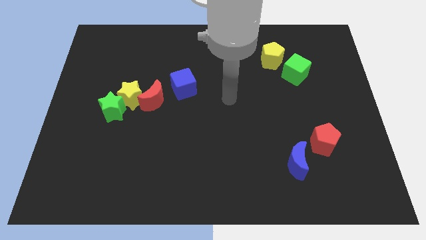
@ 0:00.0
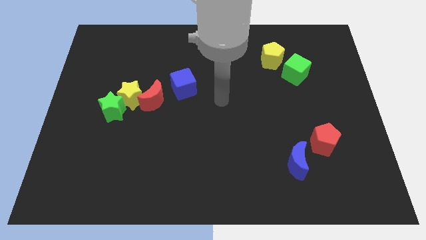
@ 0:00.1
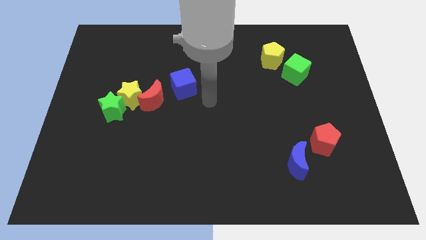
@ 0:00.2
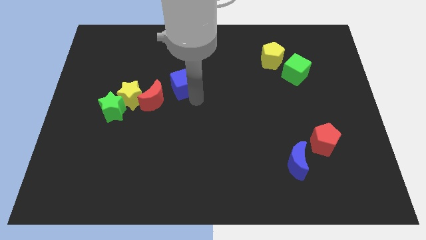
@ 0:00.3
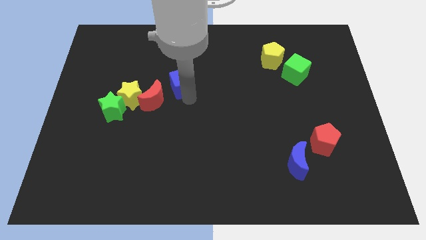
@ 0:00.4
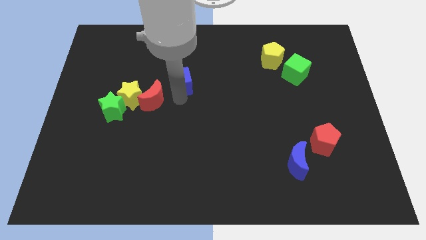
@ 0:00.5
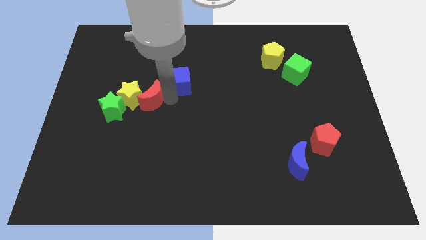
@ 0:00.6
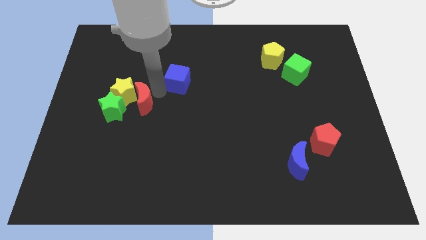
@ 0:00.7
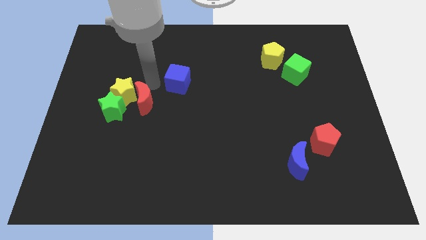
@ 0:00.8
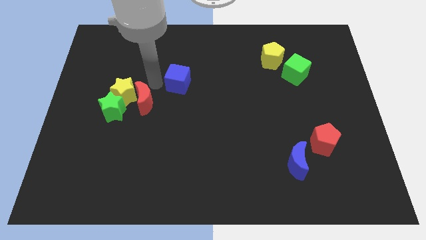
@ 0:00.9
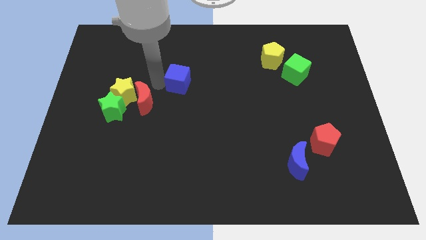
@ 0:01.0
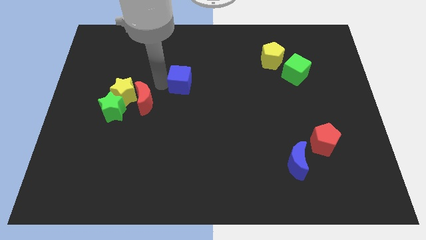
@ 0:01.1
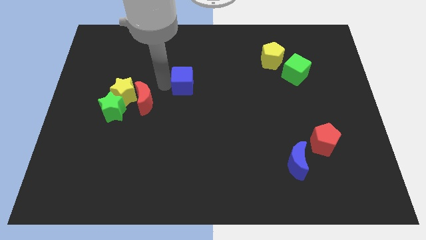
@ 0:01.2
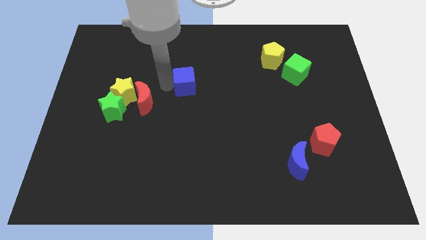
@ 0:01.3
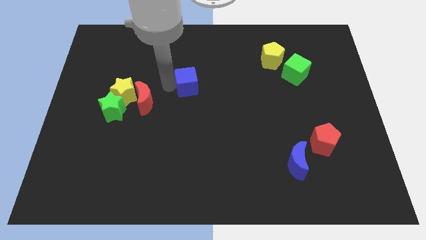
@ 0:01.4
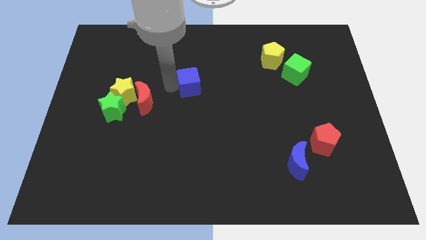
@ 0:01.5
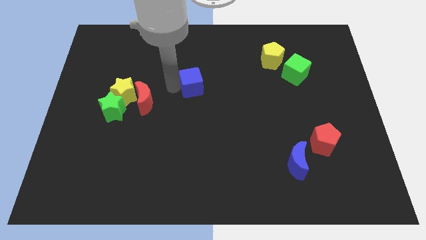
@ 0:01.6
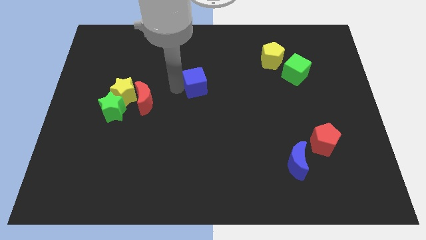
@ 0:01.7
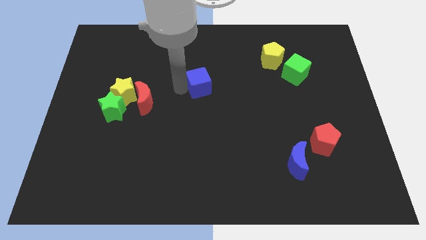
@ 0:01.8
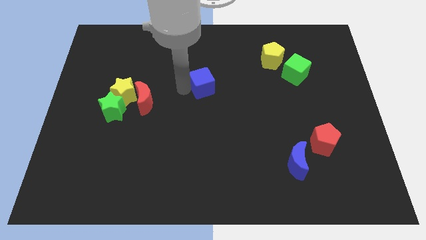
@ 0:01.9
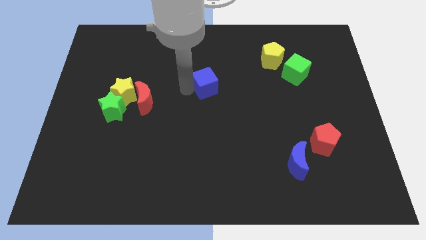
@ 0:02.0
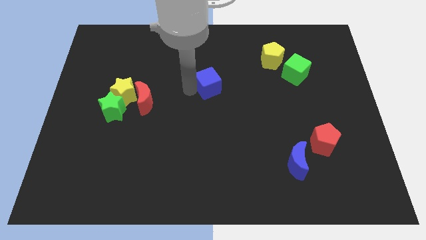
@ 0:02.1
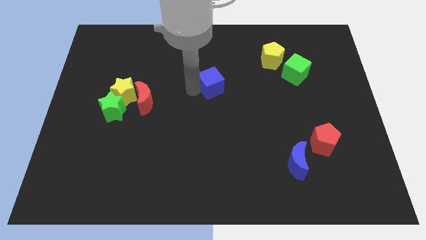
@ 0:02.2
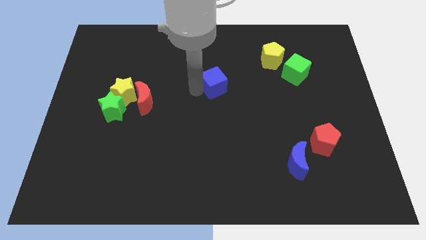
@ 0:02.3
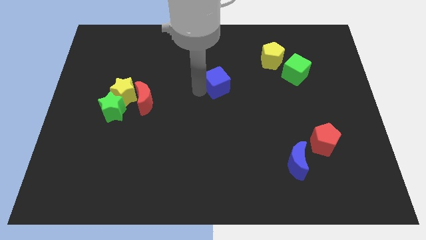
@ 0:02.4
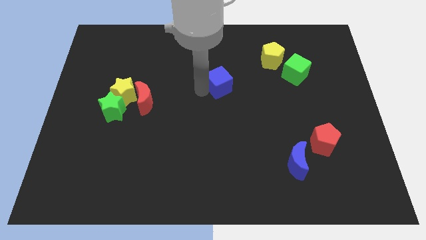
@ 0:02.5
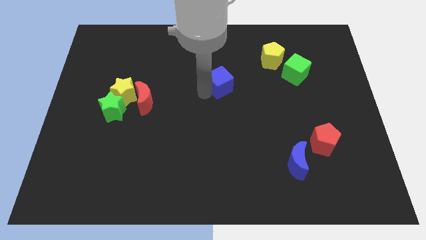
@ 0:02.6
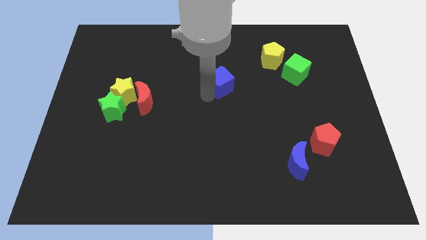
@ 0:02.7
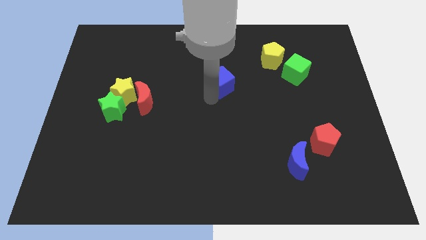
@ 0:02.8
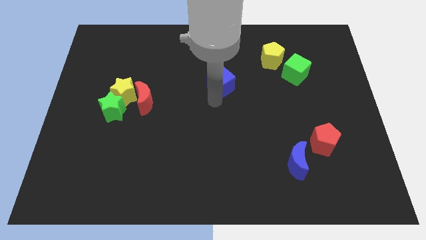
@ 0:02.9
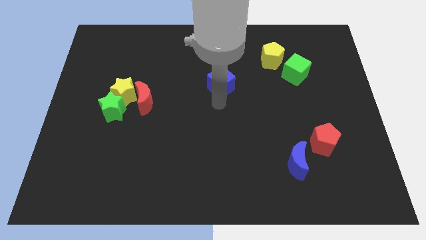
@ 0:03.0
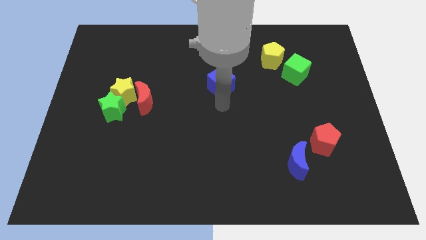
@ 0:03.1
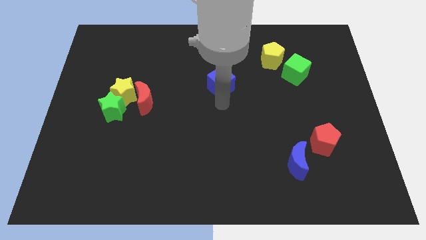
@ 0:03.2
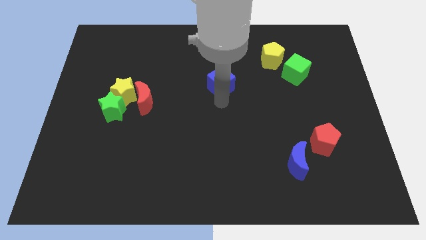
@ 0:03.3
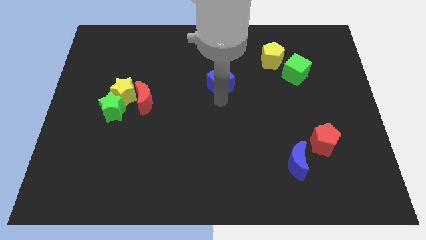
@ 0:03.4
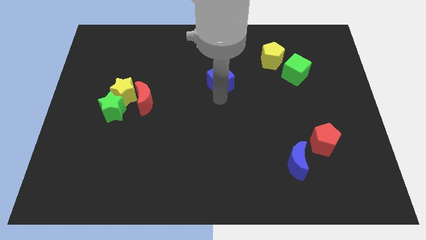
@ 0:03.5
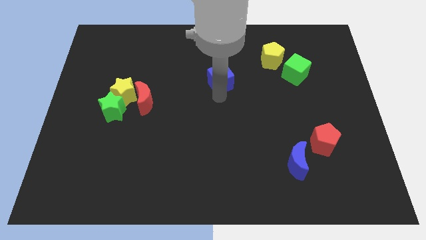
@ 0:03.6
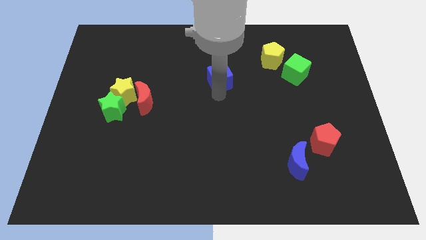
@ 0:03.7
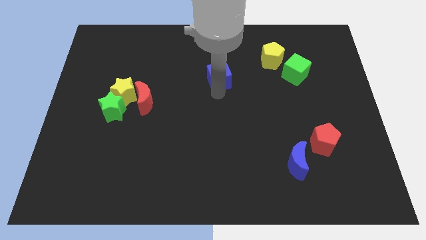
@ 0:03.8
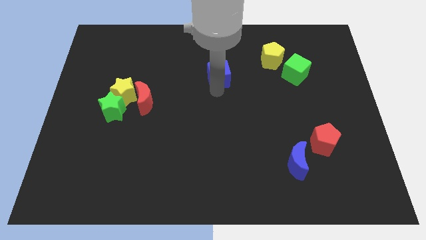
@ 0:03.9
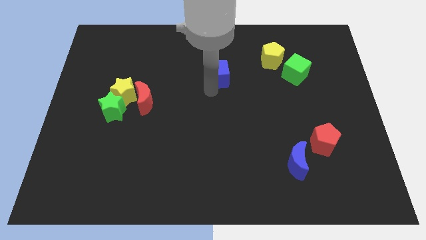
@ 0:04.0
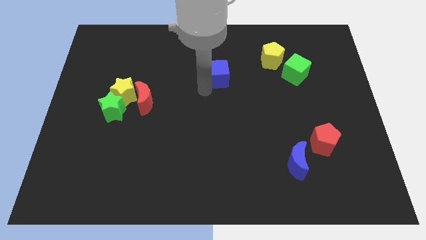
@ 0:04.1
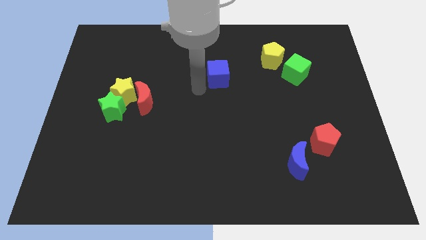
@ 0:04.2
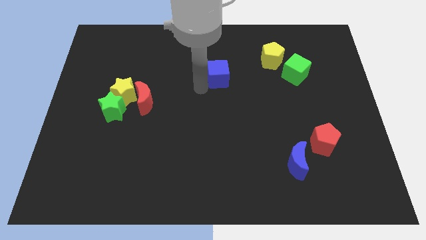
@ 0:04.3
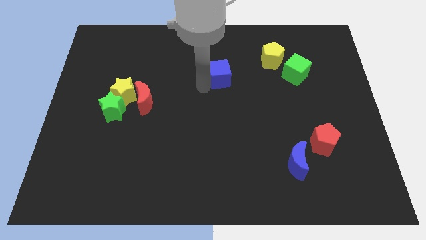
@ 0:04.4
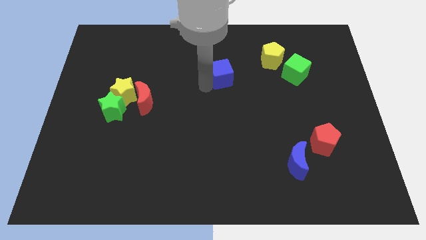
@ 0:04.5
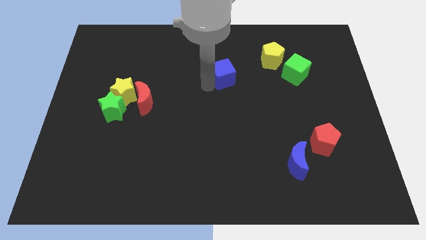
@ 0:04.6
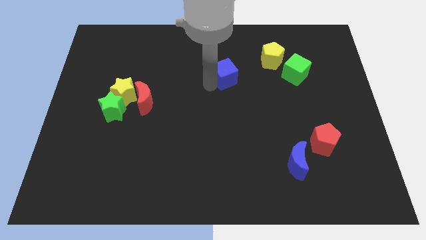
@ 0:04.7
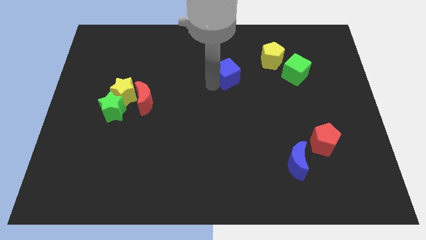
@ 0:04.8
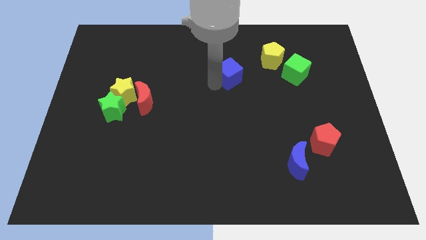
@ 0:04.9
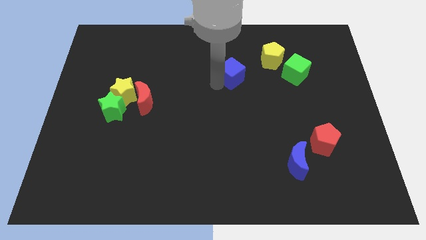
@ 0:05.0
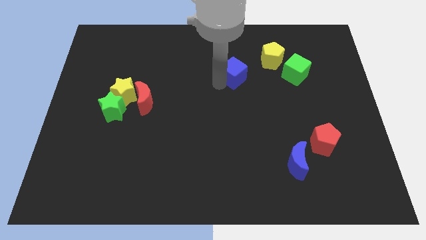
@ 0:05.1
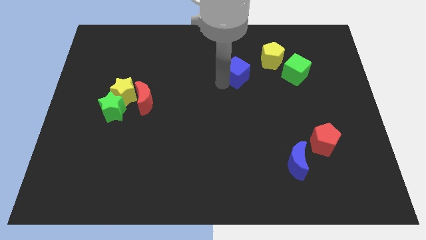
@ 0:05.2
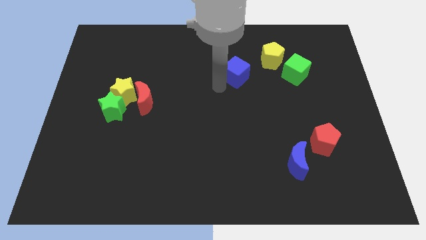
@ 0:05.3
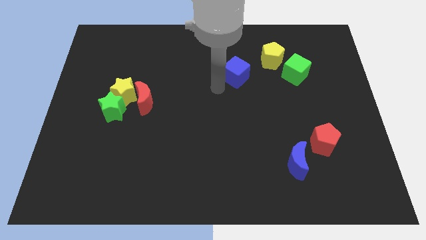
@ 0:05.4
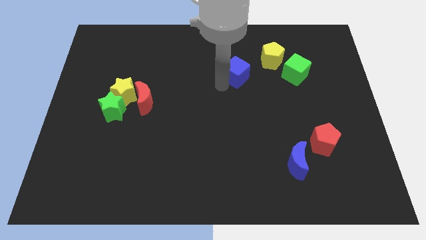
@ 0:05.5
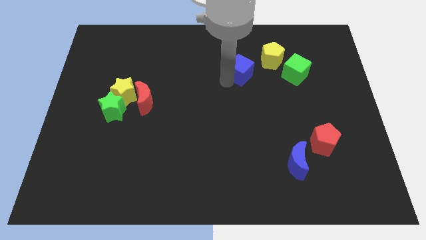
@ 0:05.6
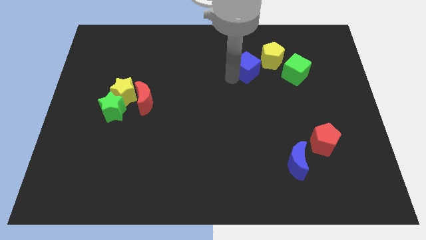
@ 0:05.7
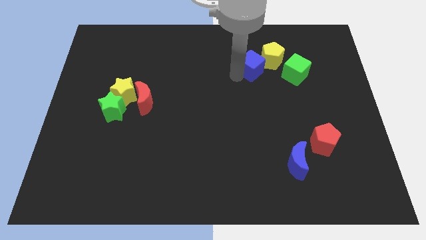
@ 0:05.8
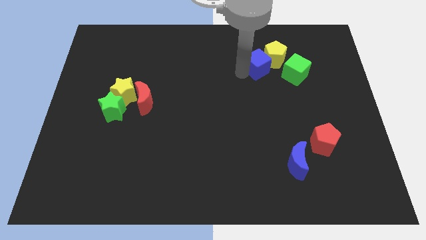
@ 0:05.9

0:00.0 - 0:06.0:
put the blue cube towards the yellow pentagon
